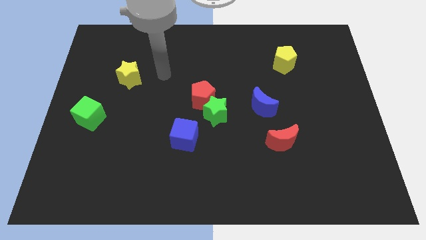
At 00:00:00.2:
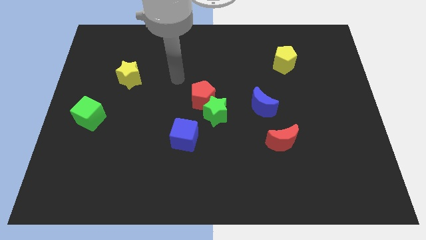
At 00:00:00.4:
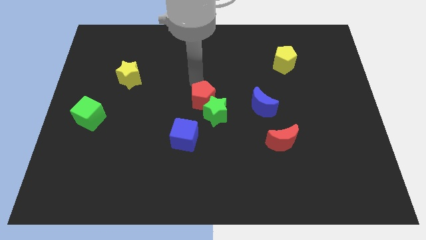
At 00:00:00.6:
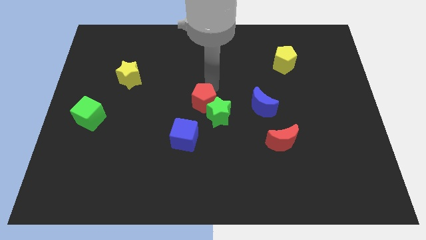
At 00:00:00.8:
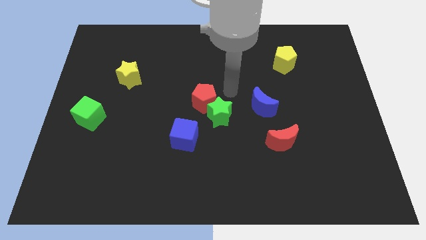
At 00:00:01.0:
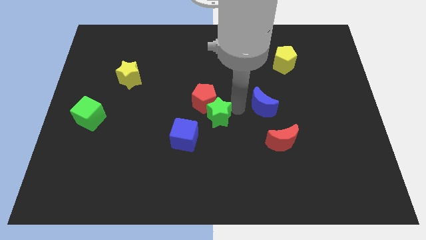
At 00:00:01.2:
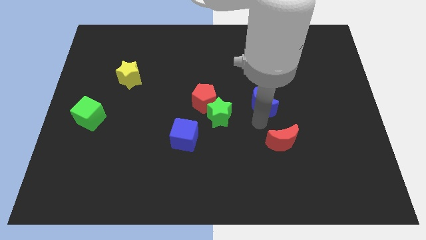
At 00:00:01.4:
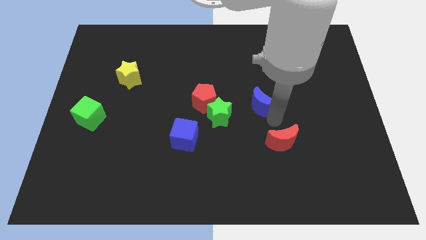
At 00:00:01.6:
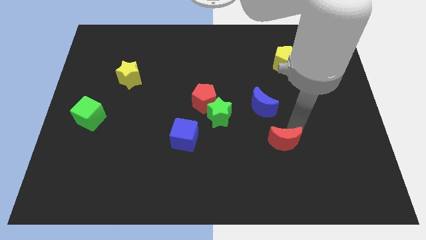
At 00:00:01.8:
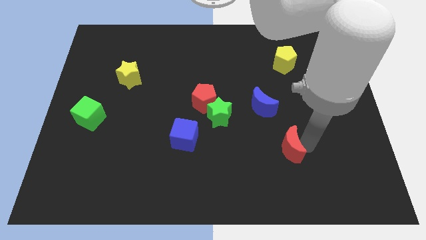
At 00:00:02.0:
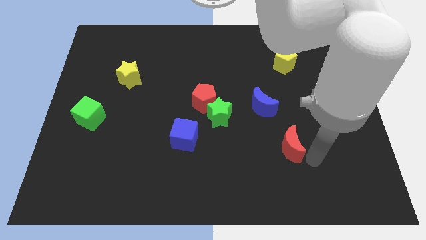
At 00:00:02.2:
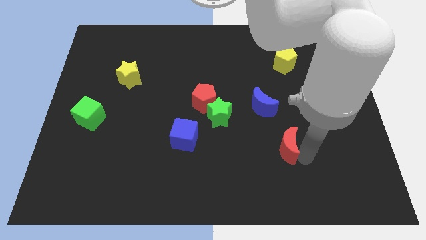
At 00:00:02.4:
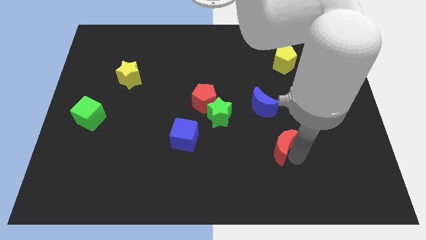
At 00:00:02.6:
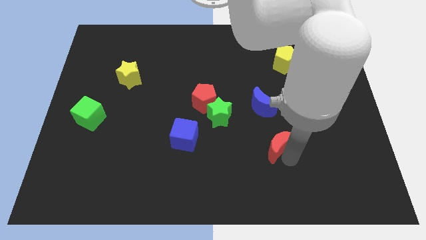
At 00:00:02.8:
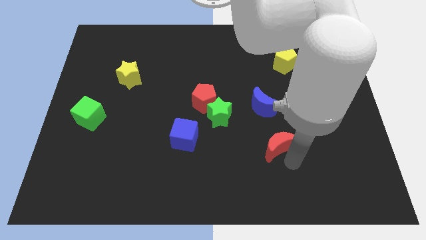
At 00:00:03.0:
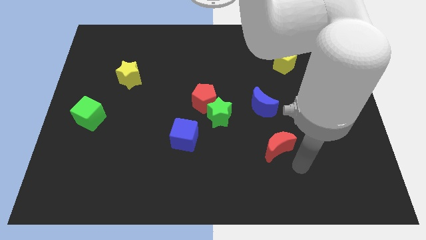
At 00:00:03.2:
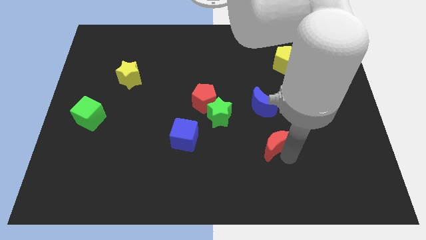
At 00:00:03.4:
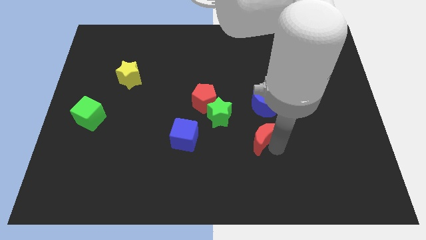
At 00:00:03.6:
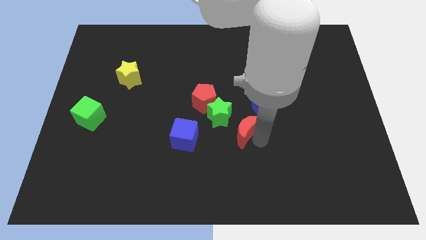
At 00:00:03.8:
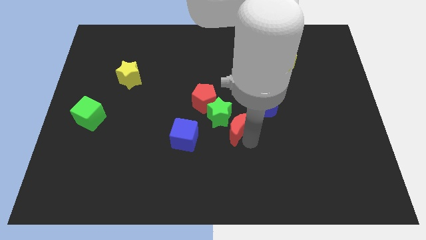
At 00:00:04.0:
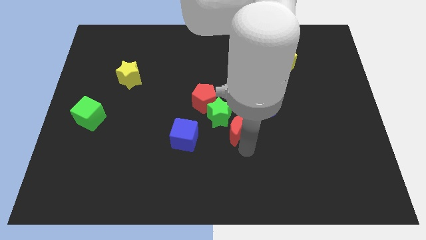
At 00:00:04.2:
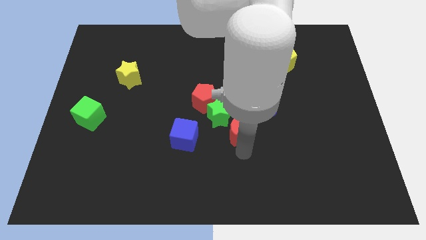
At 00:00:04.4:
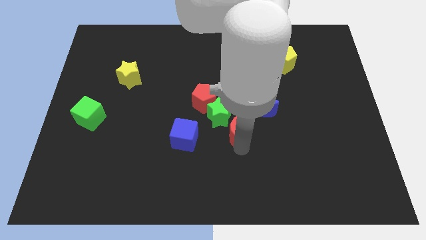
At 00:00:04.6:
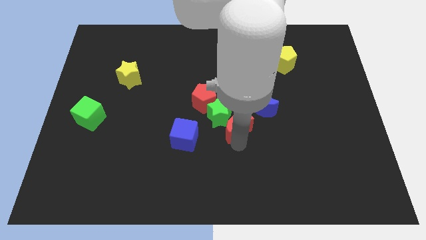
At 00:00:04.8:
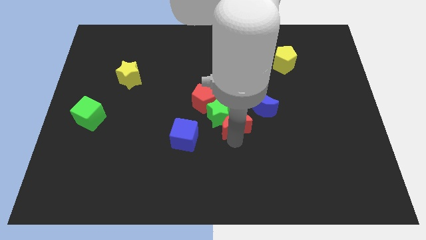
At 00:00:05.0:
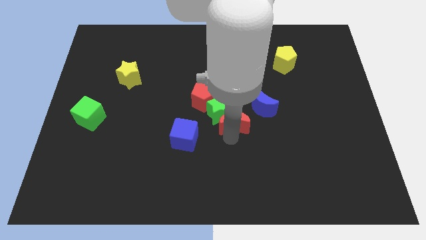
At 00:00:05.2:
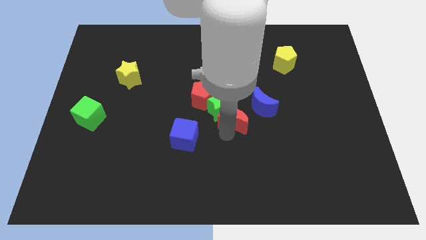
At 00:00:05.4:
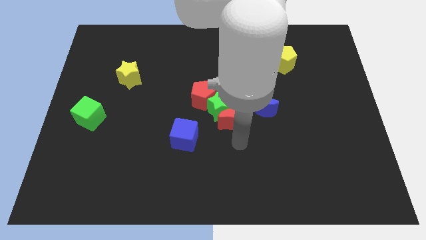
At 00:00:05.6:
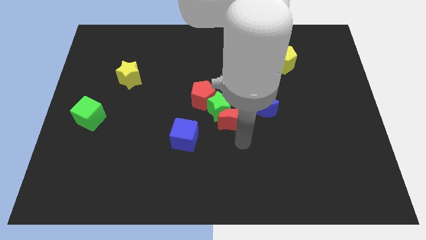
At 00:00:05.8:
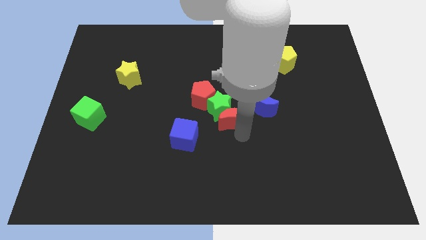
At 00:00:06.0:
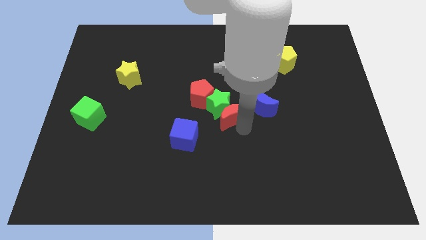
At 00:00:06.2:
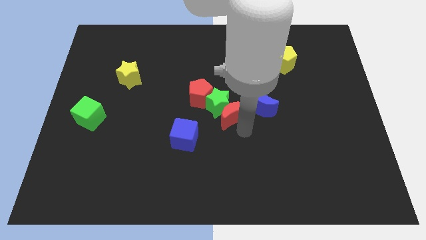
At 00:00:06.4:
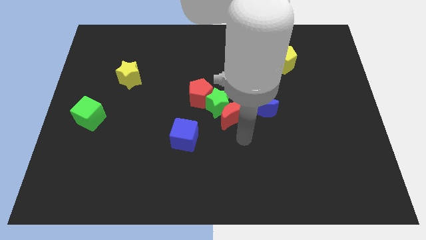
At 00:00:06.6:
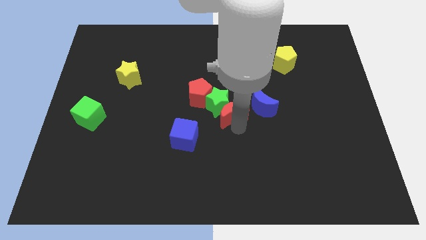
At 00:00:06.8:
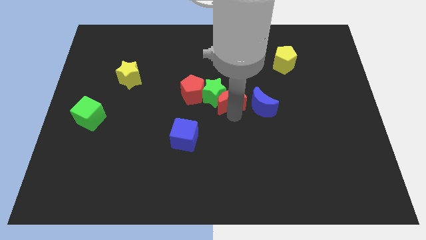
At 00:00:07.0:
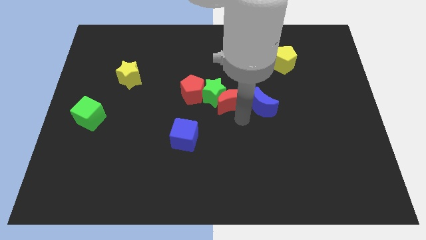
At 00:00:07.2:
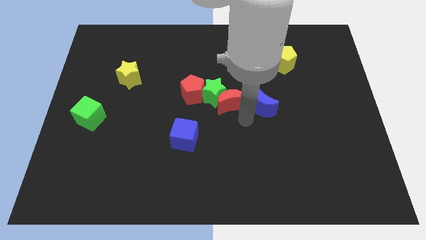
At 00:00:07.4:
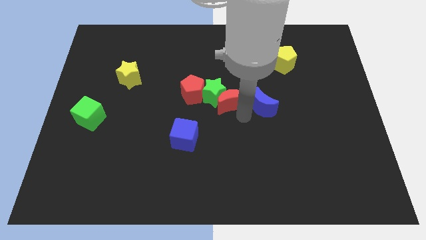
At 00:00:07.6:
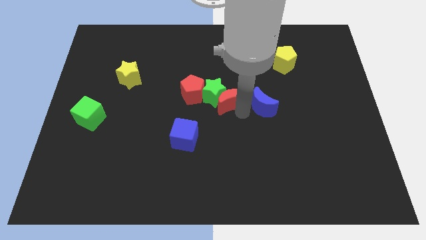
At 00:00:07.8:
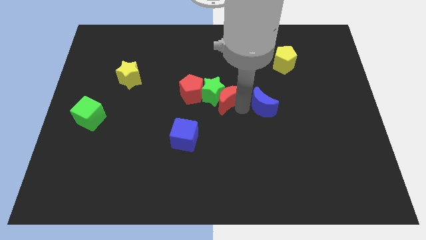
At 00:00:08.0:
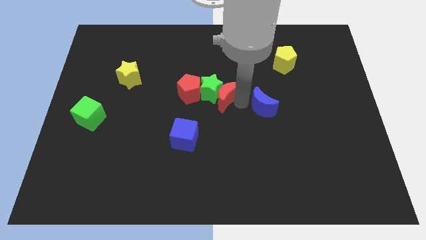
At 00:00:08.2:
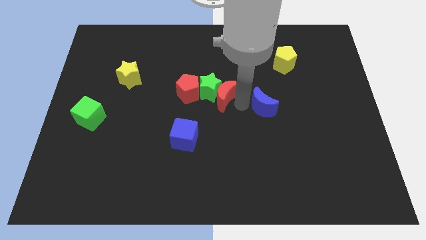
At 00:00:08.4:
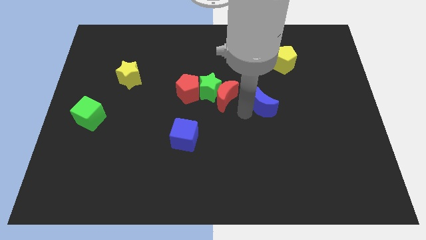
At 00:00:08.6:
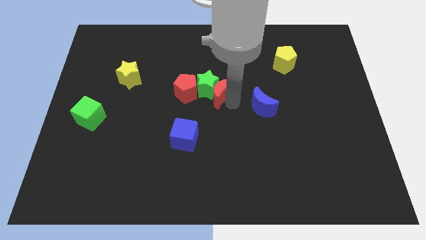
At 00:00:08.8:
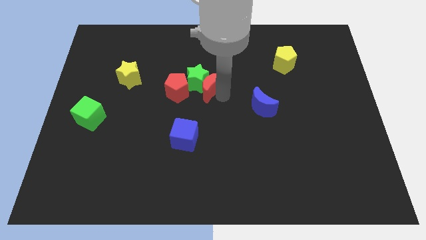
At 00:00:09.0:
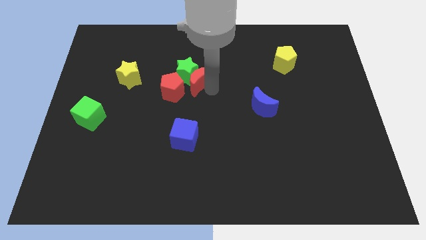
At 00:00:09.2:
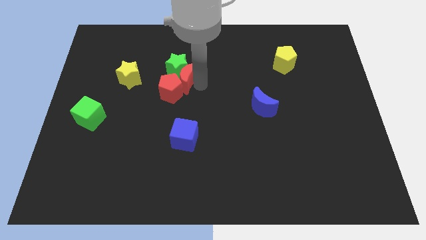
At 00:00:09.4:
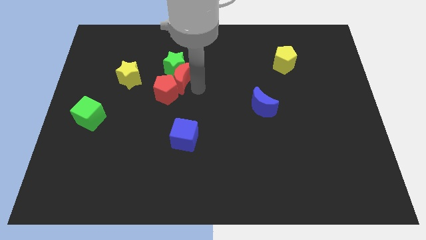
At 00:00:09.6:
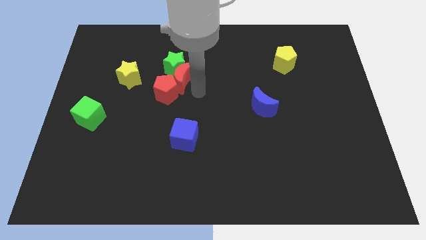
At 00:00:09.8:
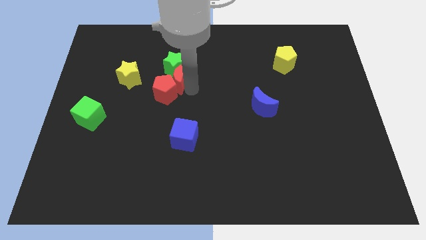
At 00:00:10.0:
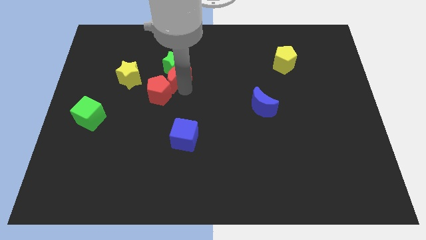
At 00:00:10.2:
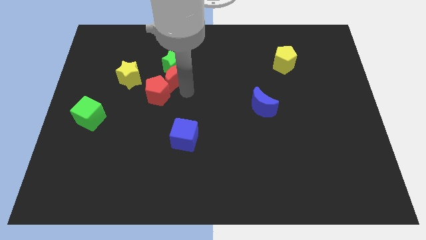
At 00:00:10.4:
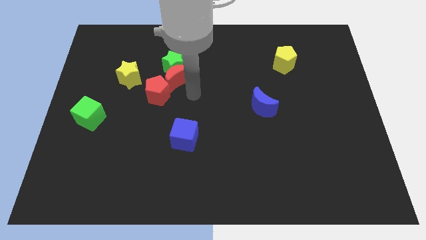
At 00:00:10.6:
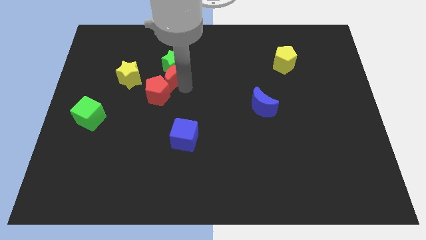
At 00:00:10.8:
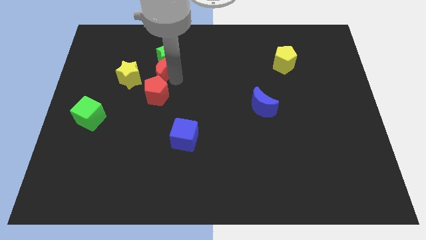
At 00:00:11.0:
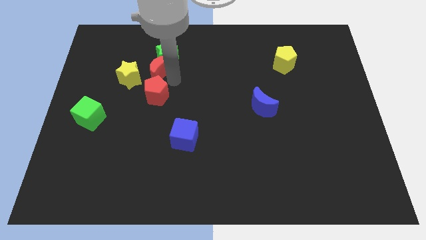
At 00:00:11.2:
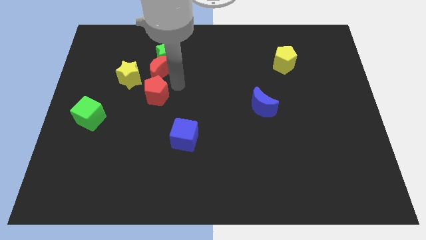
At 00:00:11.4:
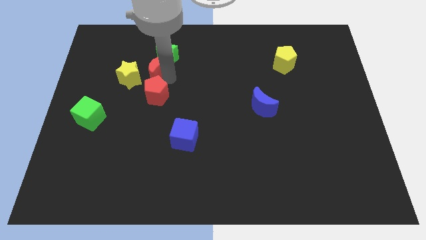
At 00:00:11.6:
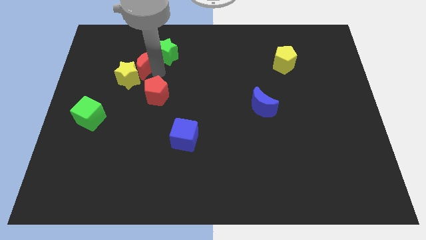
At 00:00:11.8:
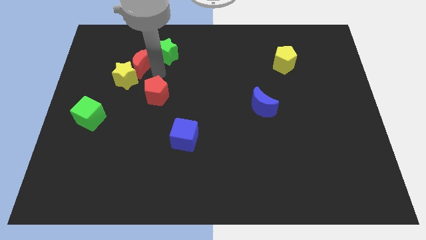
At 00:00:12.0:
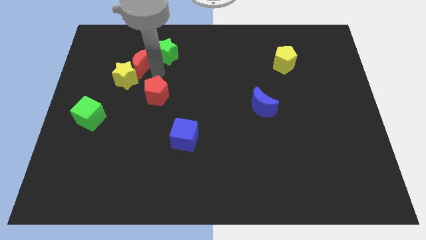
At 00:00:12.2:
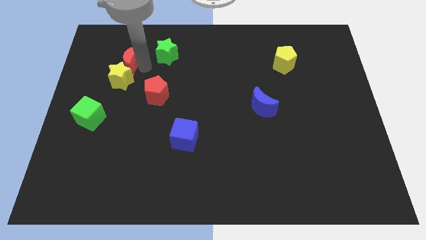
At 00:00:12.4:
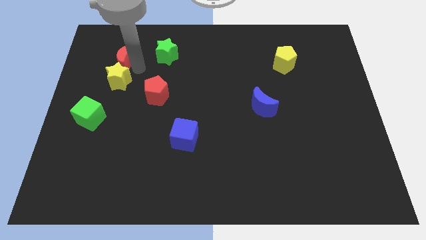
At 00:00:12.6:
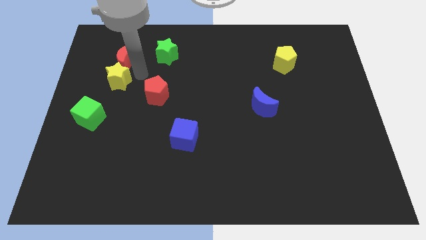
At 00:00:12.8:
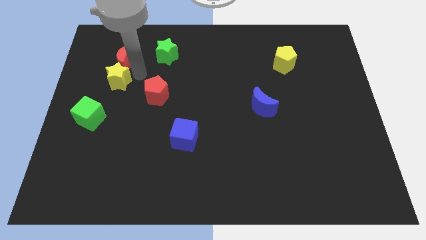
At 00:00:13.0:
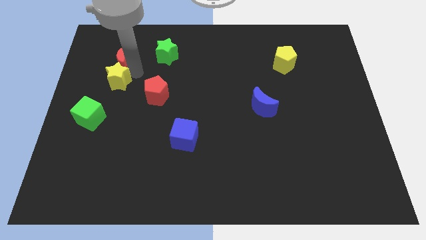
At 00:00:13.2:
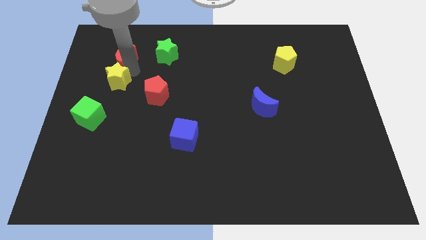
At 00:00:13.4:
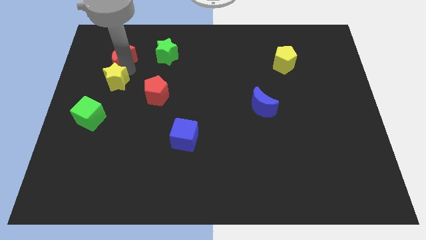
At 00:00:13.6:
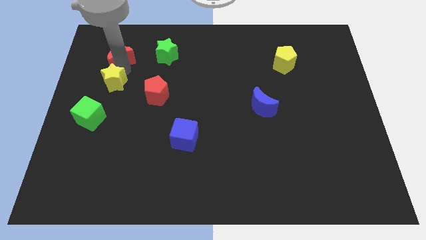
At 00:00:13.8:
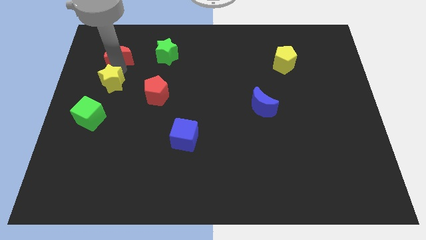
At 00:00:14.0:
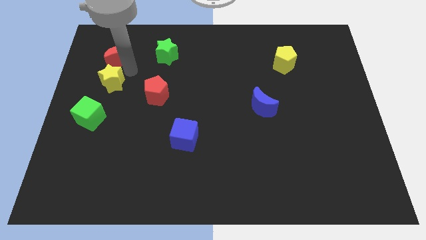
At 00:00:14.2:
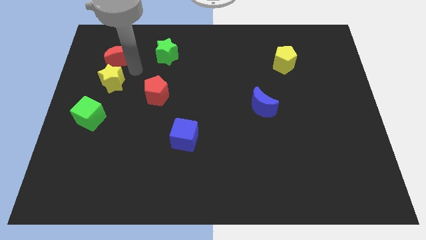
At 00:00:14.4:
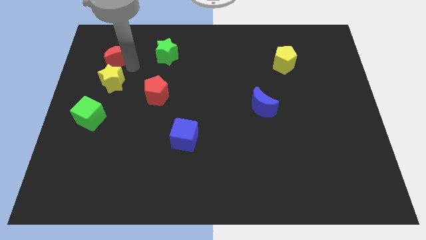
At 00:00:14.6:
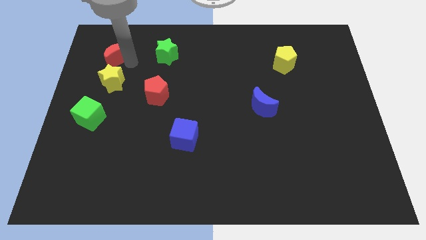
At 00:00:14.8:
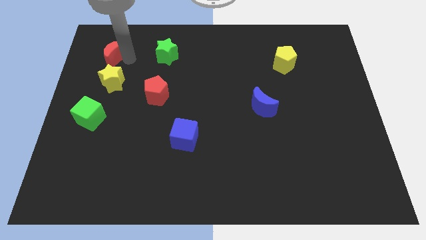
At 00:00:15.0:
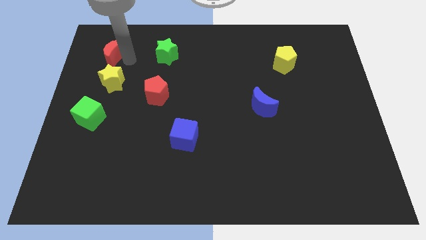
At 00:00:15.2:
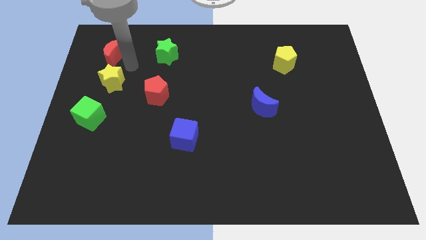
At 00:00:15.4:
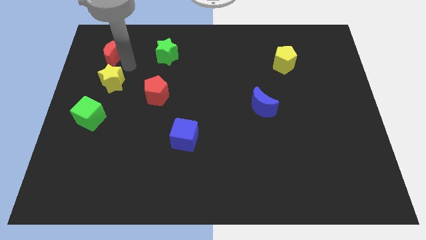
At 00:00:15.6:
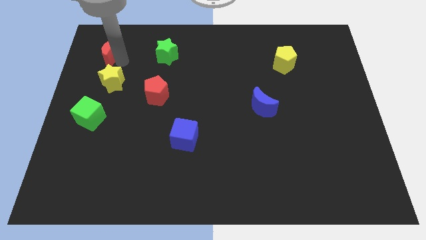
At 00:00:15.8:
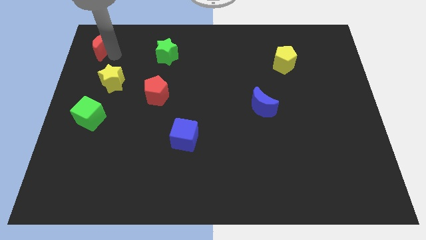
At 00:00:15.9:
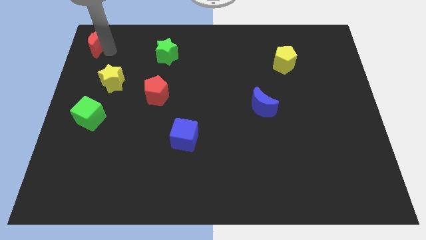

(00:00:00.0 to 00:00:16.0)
push the red moon to the top left
